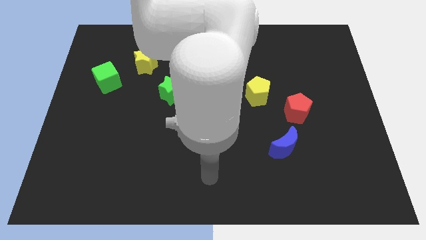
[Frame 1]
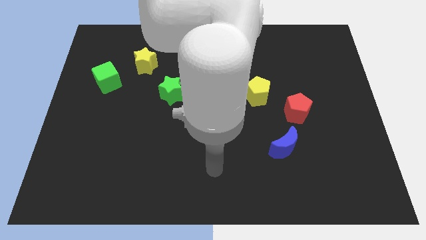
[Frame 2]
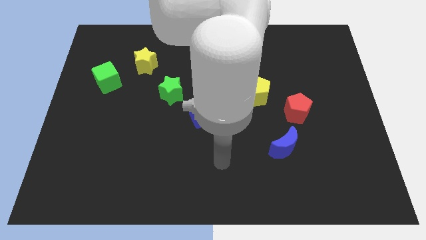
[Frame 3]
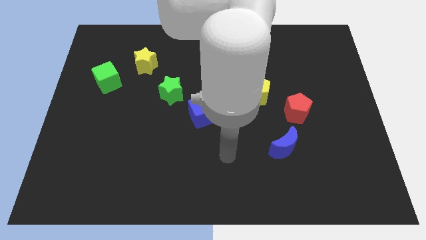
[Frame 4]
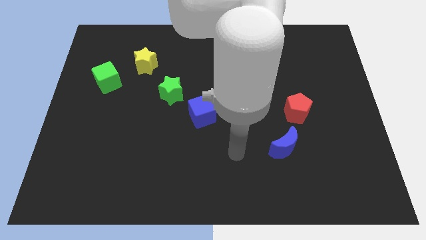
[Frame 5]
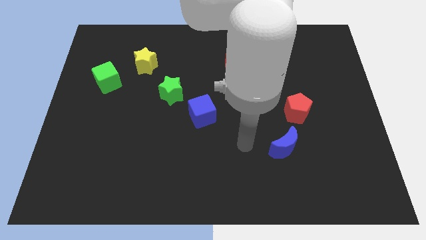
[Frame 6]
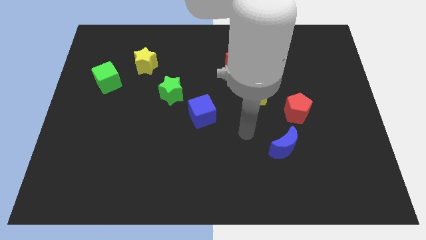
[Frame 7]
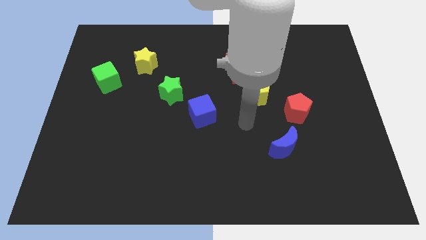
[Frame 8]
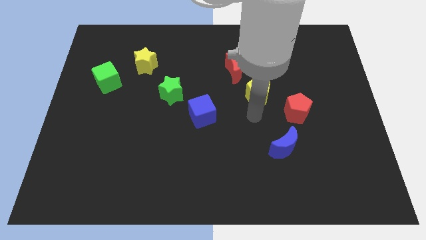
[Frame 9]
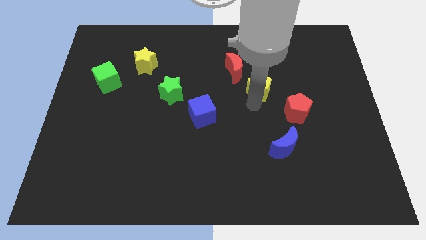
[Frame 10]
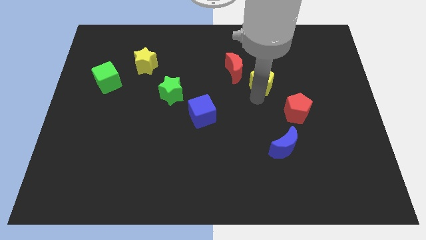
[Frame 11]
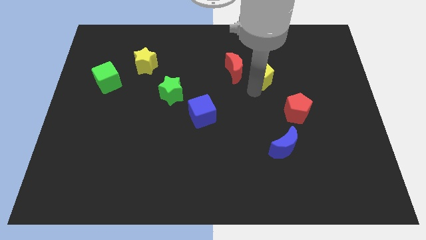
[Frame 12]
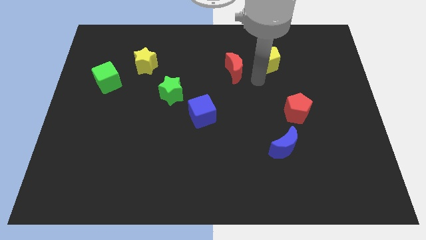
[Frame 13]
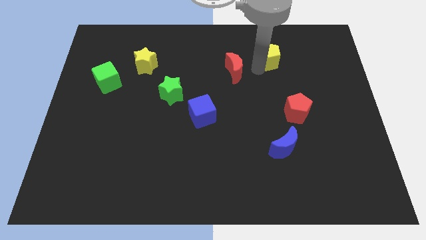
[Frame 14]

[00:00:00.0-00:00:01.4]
pull the red moon apart from the yellow pentagon

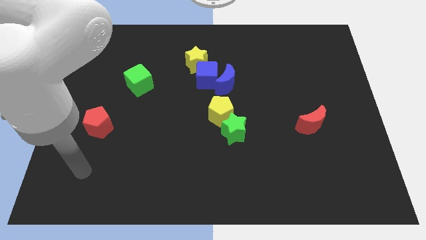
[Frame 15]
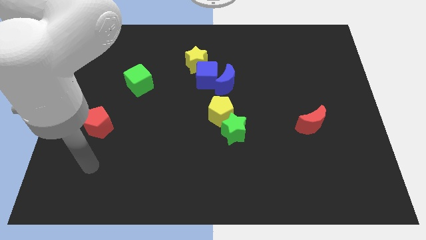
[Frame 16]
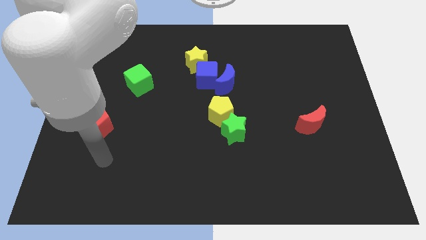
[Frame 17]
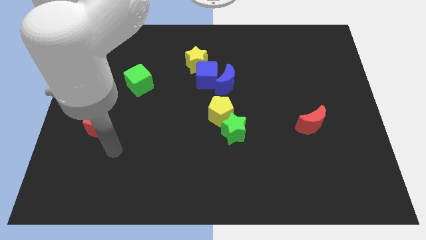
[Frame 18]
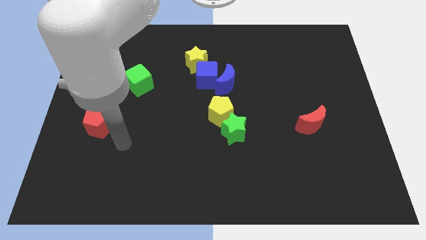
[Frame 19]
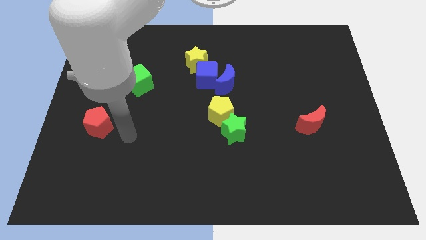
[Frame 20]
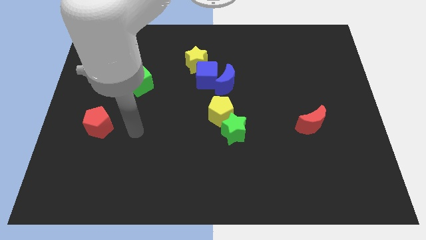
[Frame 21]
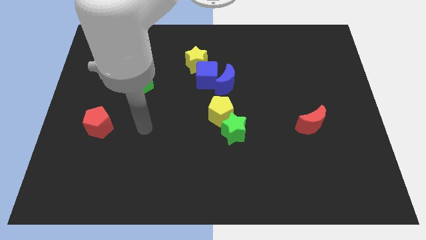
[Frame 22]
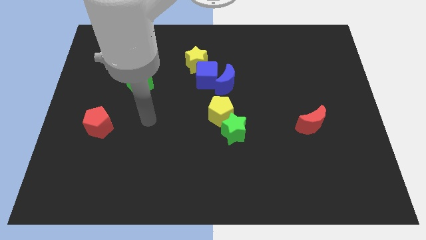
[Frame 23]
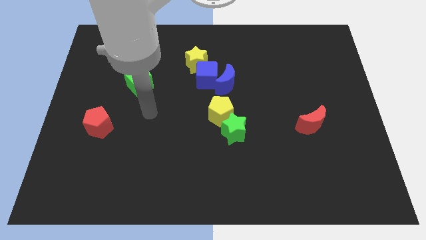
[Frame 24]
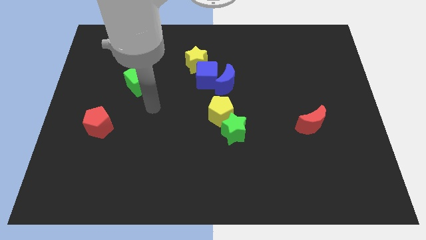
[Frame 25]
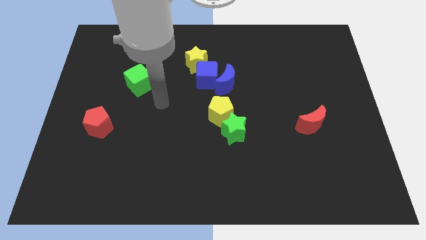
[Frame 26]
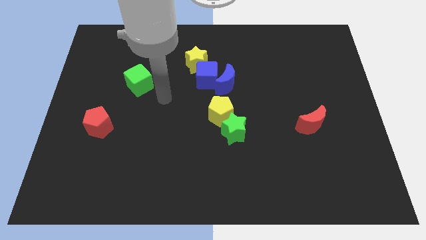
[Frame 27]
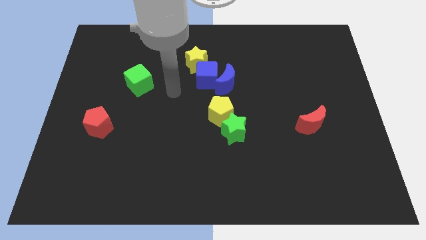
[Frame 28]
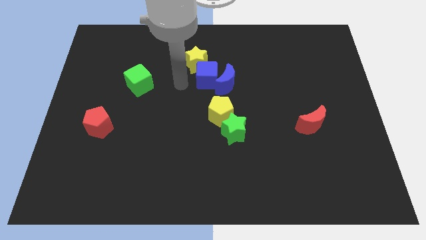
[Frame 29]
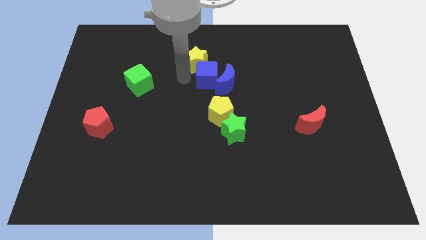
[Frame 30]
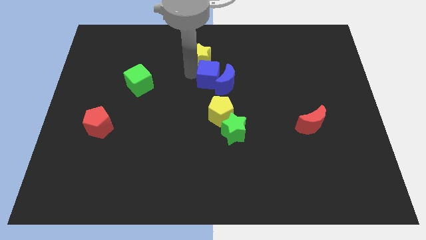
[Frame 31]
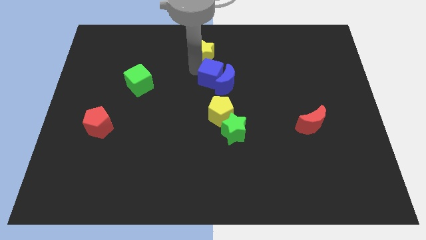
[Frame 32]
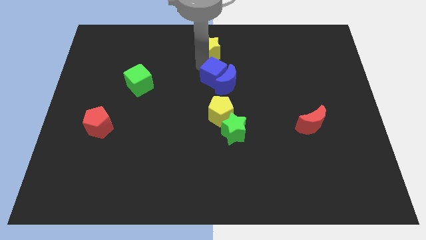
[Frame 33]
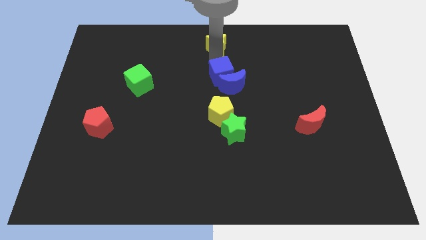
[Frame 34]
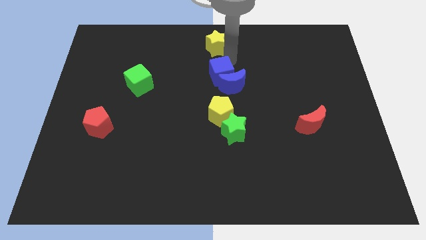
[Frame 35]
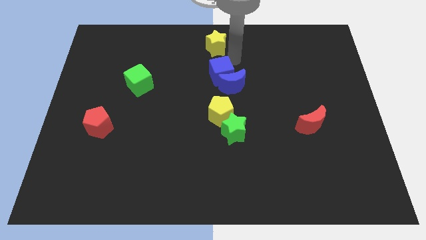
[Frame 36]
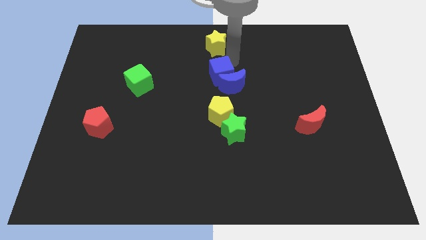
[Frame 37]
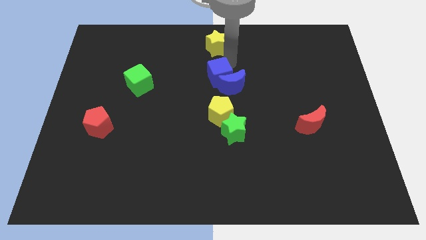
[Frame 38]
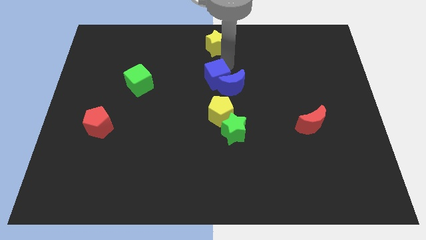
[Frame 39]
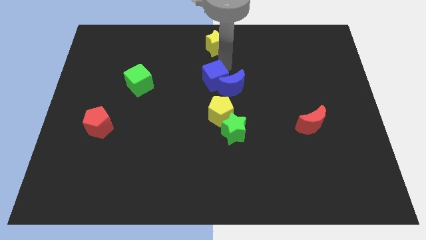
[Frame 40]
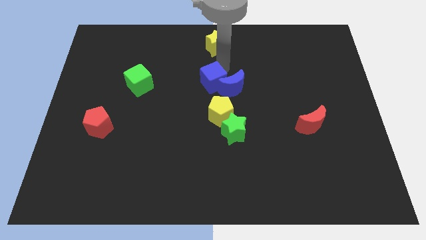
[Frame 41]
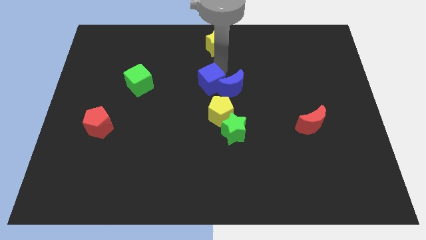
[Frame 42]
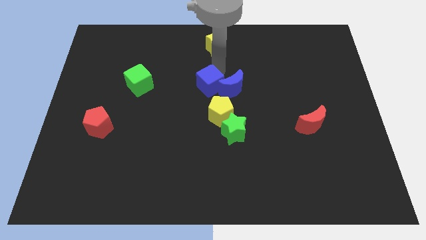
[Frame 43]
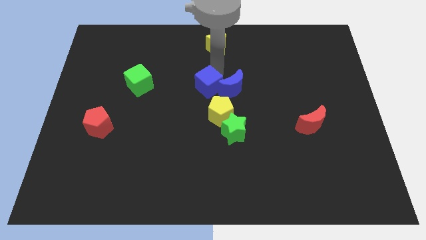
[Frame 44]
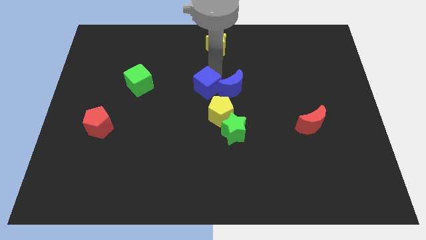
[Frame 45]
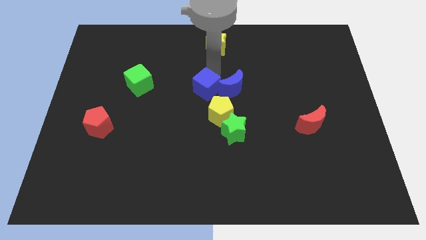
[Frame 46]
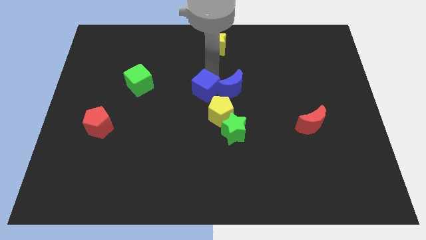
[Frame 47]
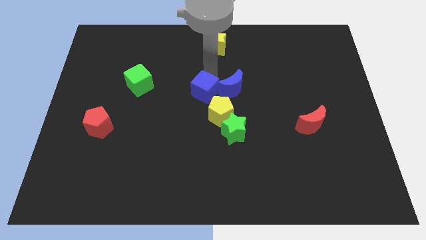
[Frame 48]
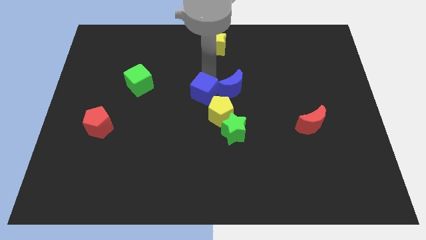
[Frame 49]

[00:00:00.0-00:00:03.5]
pull the blue cube apart from the blue moon and yellow star

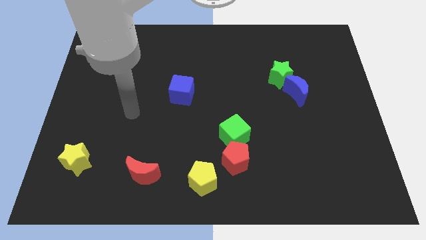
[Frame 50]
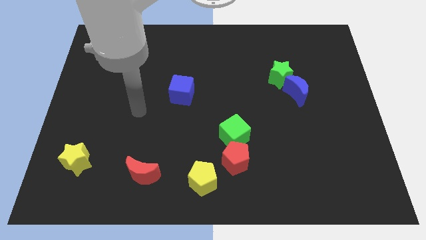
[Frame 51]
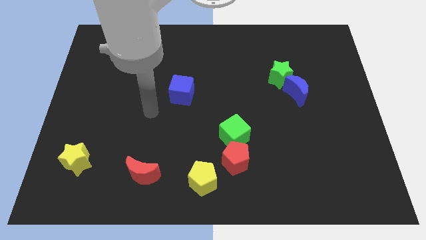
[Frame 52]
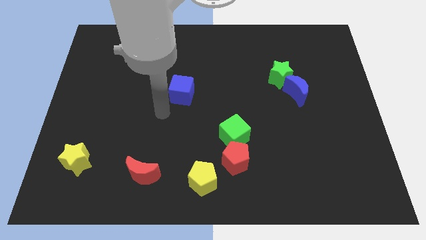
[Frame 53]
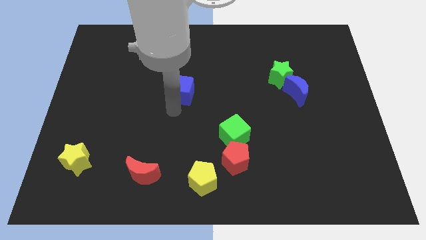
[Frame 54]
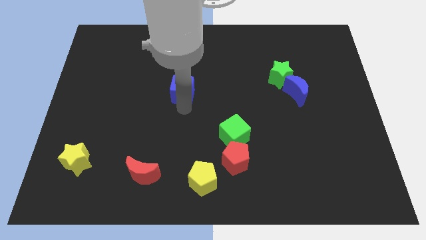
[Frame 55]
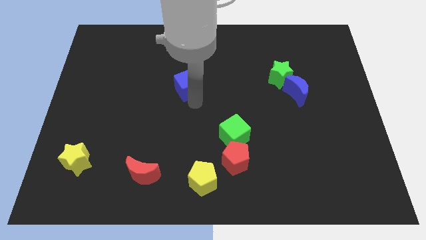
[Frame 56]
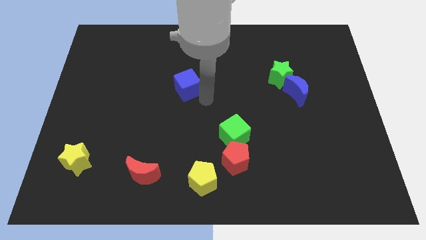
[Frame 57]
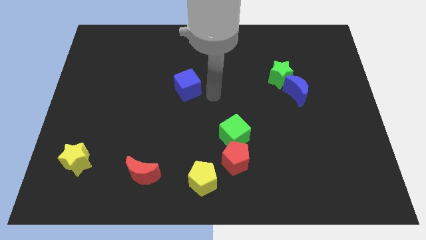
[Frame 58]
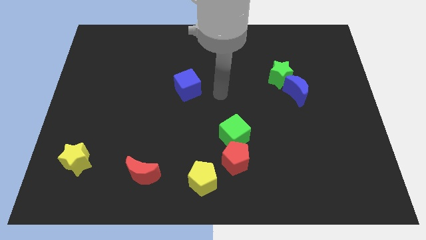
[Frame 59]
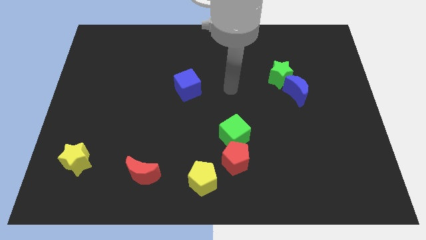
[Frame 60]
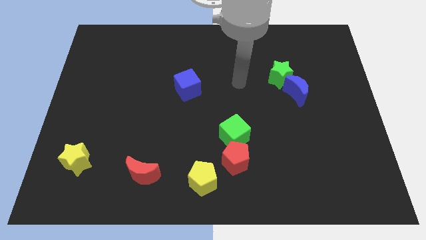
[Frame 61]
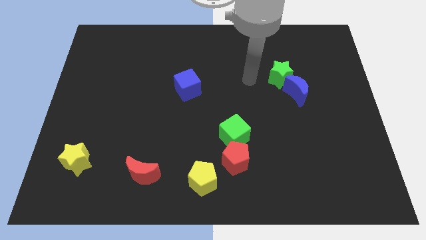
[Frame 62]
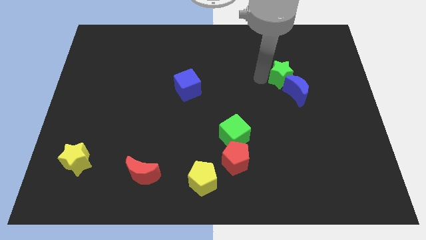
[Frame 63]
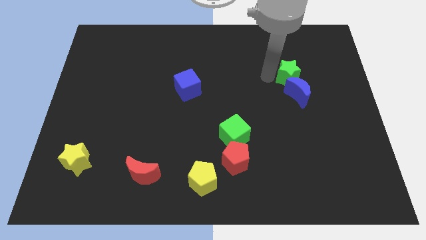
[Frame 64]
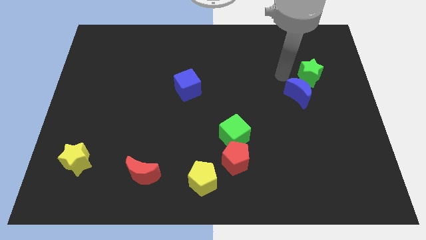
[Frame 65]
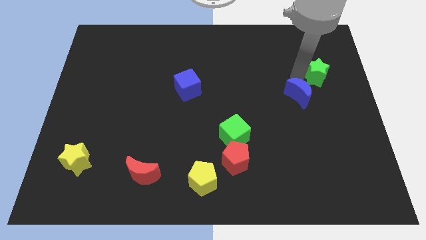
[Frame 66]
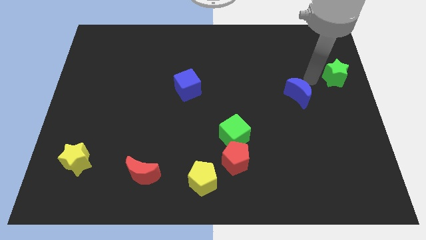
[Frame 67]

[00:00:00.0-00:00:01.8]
move the blue moon away from the green star

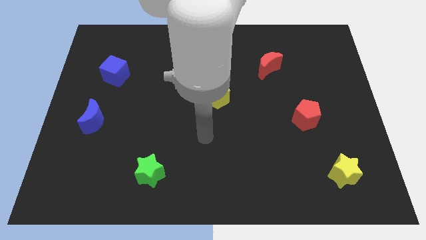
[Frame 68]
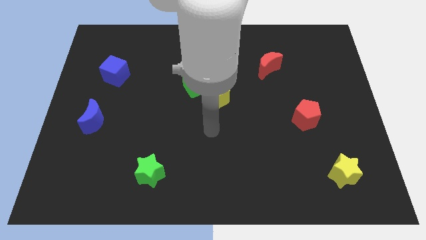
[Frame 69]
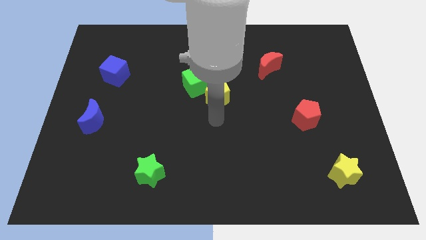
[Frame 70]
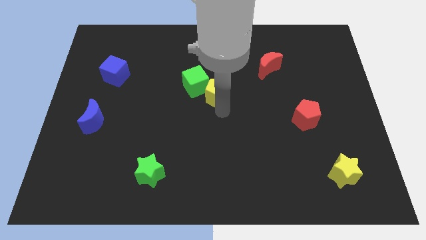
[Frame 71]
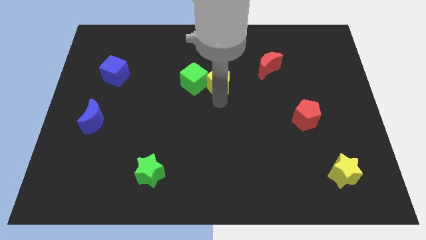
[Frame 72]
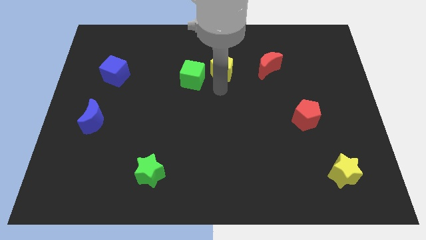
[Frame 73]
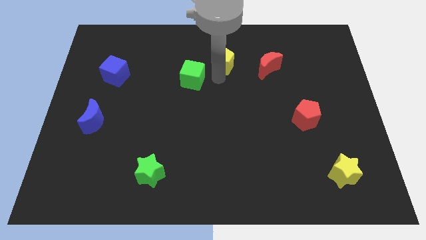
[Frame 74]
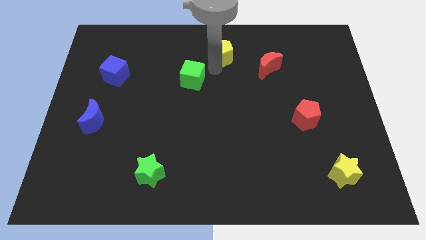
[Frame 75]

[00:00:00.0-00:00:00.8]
move the green cube away from the yellow pentagon

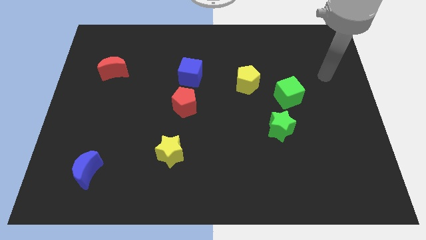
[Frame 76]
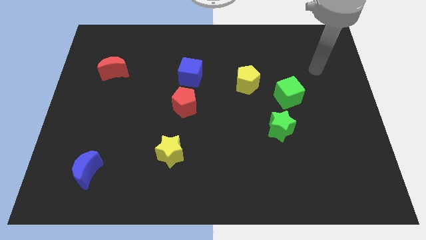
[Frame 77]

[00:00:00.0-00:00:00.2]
pull the red pentagon apart from the blue cube

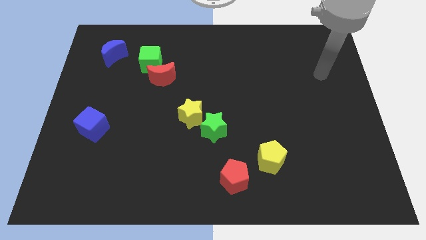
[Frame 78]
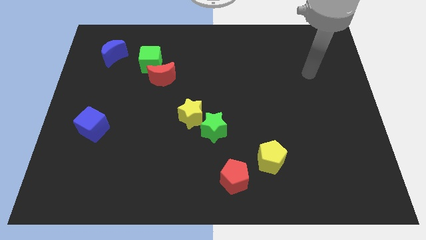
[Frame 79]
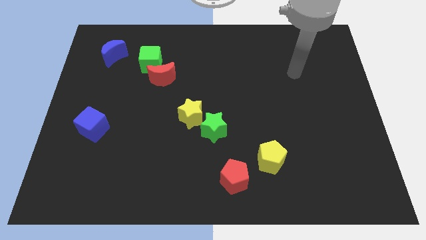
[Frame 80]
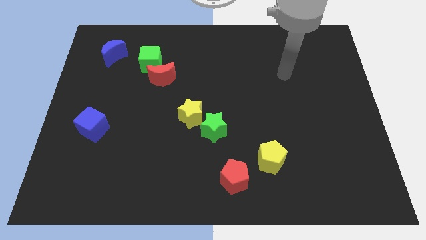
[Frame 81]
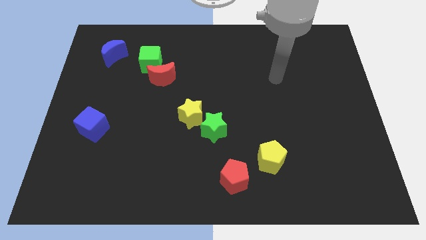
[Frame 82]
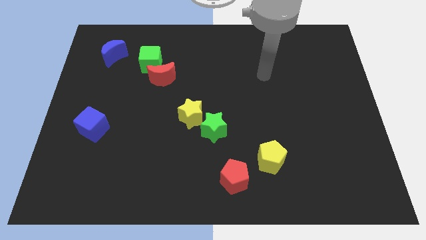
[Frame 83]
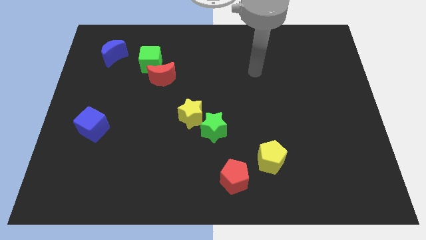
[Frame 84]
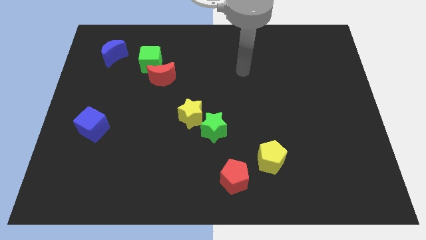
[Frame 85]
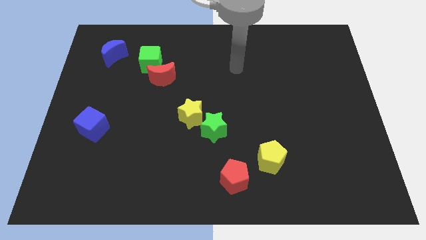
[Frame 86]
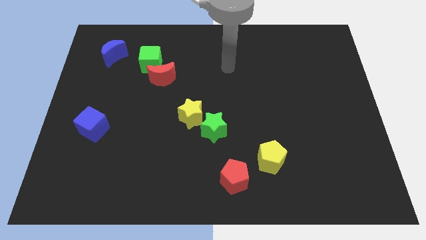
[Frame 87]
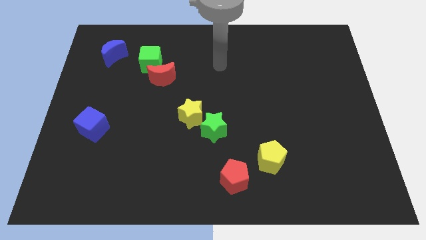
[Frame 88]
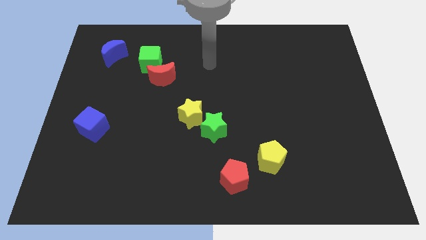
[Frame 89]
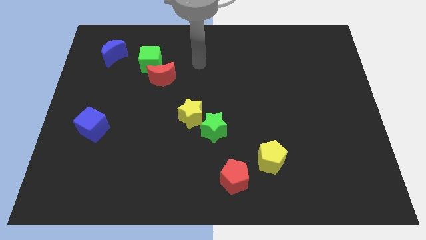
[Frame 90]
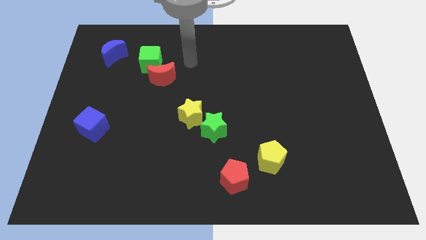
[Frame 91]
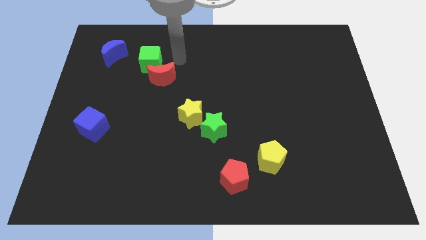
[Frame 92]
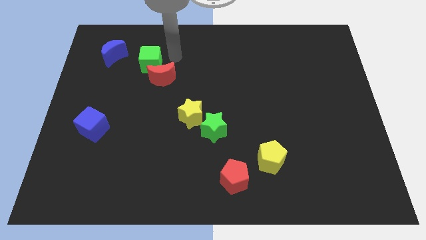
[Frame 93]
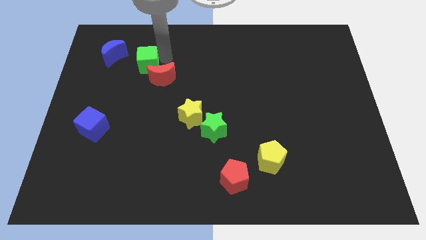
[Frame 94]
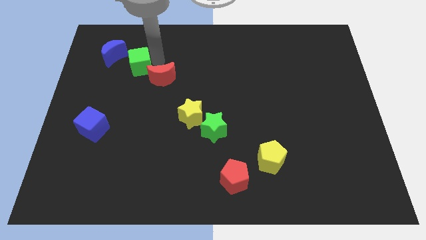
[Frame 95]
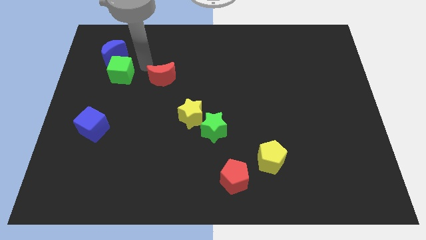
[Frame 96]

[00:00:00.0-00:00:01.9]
separate the red moon from the green cube
